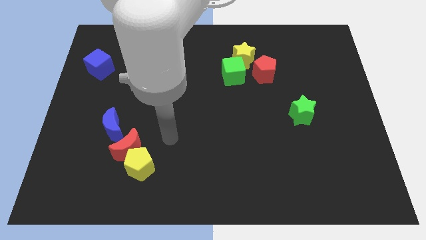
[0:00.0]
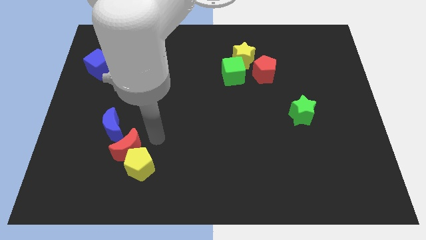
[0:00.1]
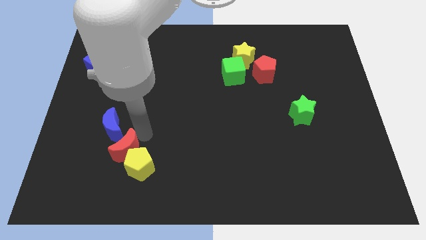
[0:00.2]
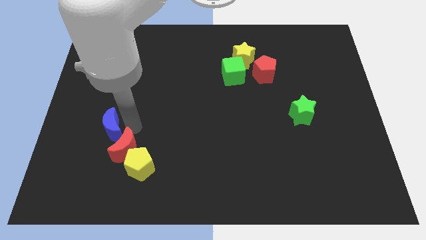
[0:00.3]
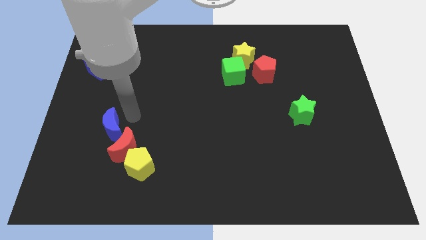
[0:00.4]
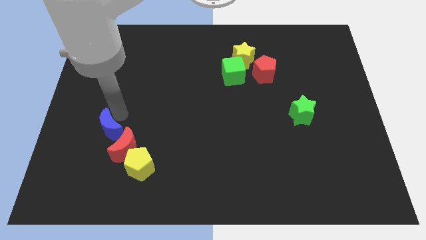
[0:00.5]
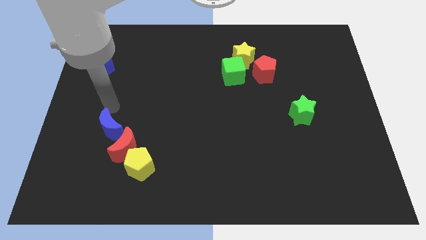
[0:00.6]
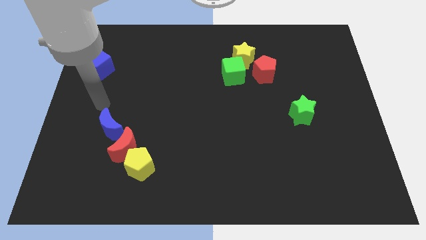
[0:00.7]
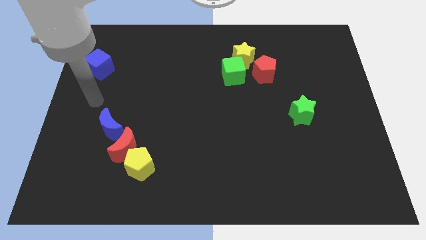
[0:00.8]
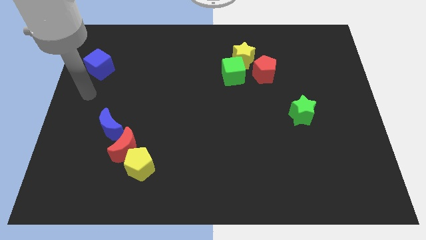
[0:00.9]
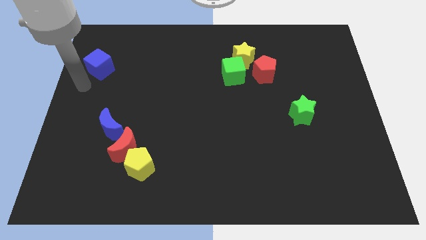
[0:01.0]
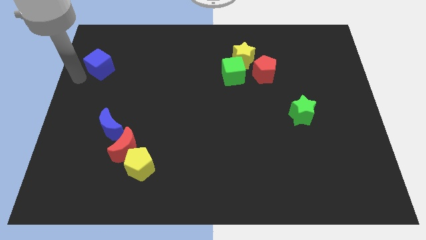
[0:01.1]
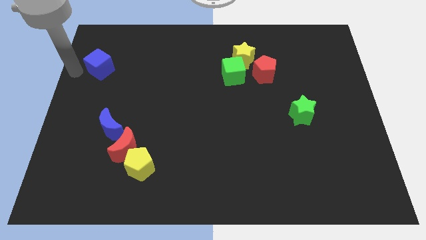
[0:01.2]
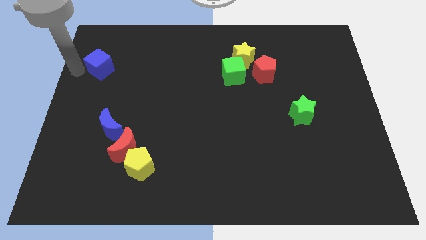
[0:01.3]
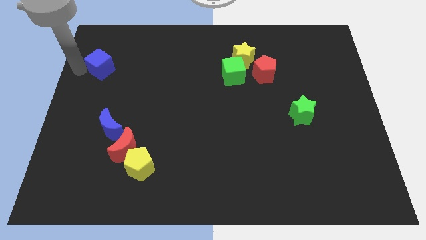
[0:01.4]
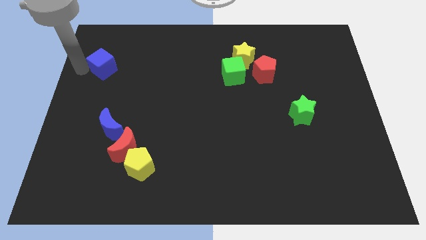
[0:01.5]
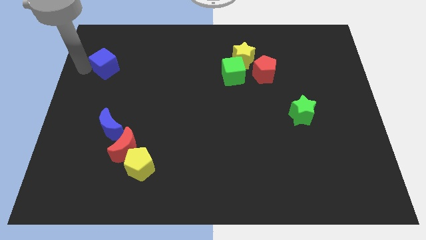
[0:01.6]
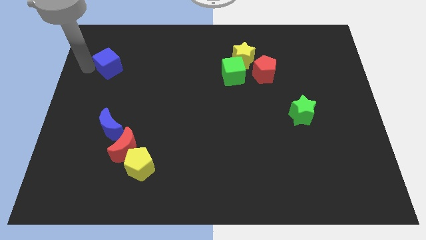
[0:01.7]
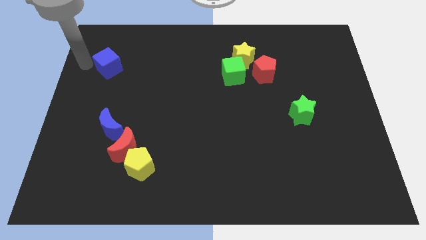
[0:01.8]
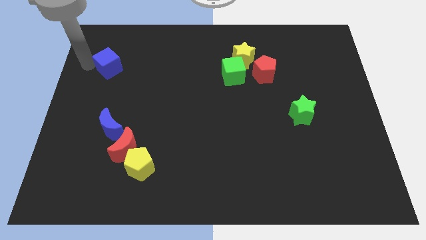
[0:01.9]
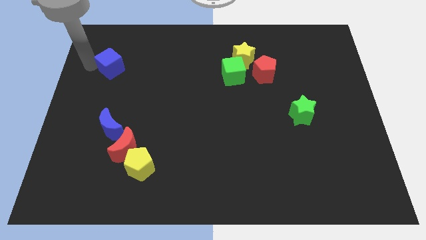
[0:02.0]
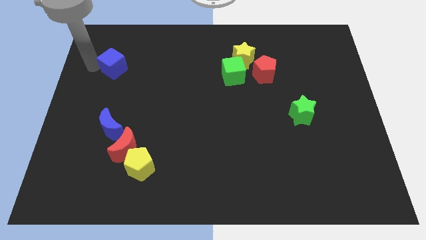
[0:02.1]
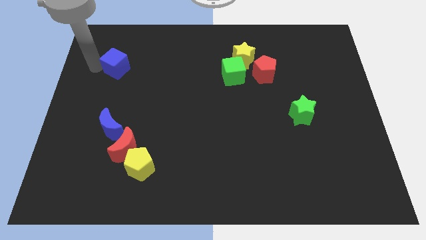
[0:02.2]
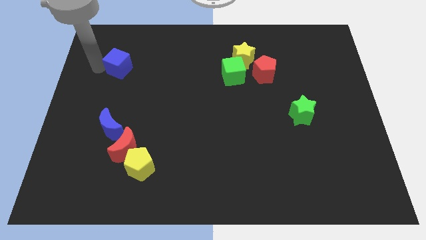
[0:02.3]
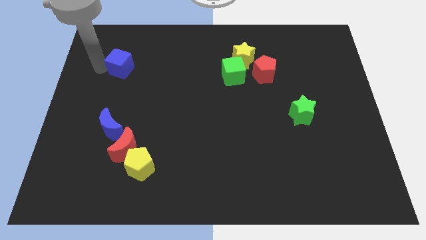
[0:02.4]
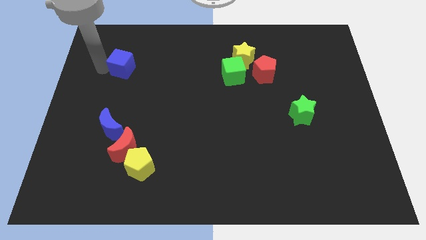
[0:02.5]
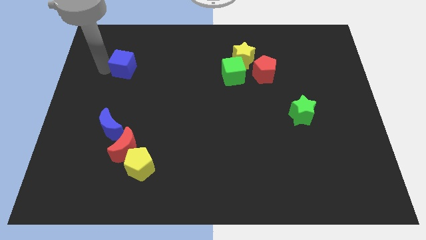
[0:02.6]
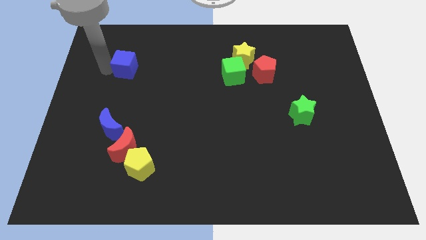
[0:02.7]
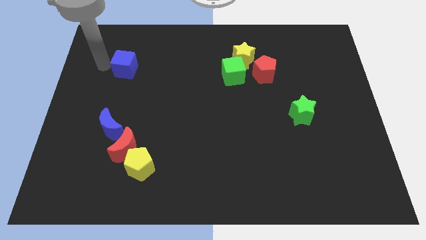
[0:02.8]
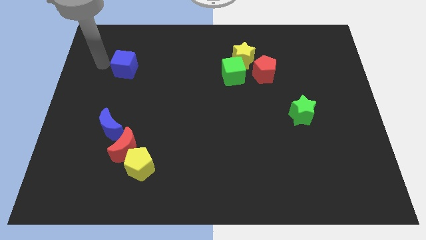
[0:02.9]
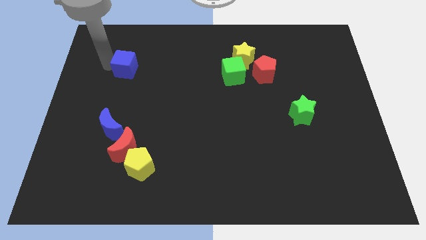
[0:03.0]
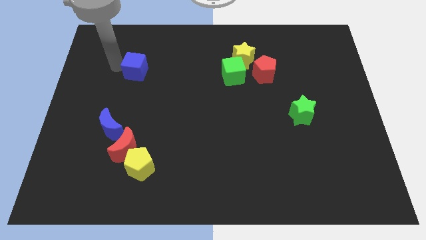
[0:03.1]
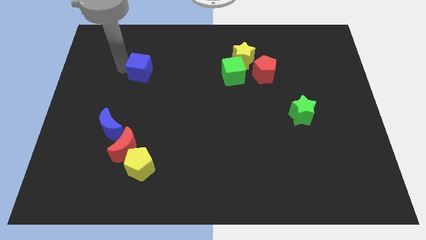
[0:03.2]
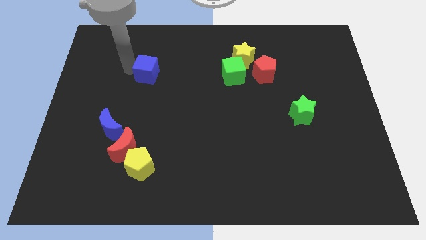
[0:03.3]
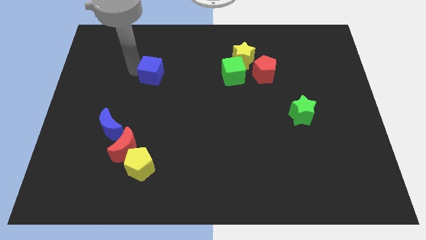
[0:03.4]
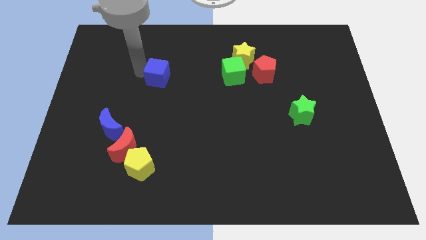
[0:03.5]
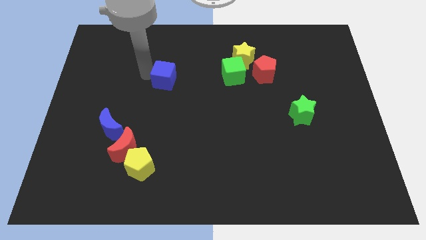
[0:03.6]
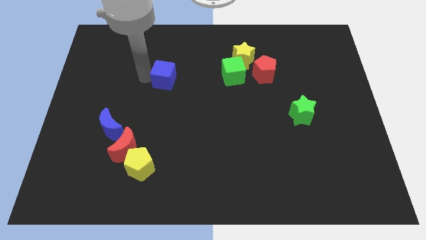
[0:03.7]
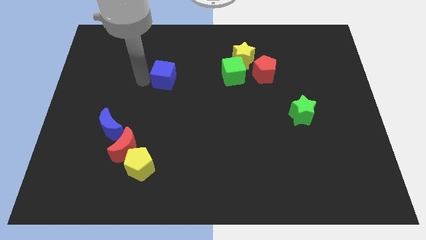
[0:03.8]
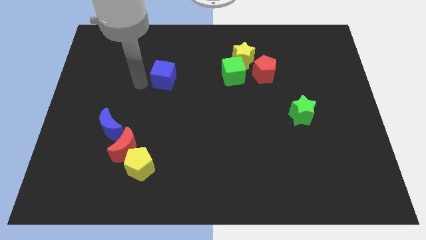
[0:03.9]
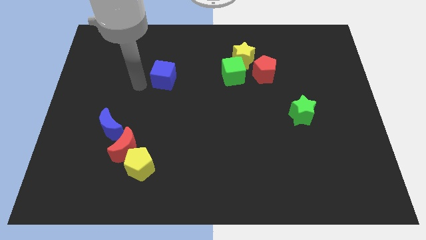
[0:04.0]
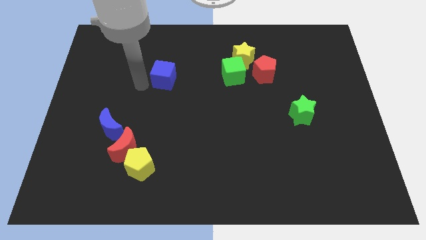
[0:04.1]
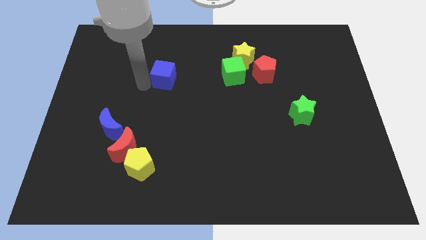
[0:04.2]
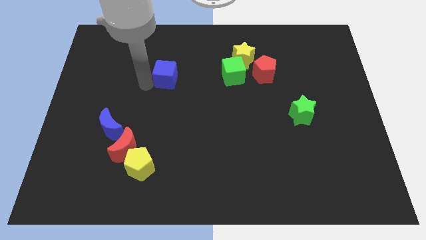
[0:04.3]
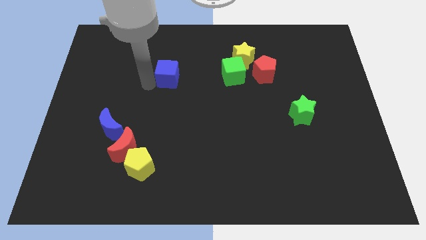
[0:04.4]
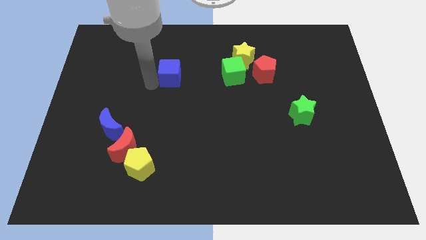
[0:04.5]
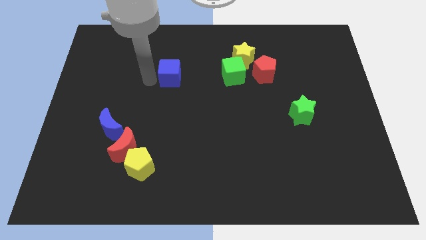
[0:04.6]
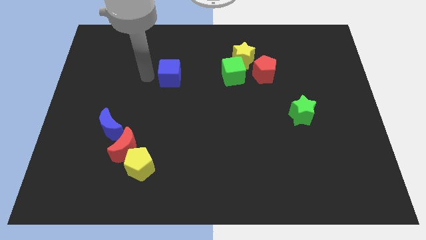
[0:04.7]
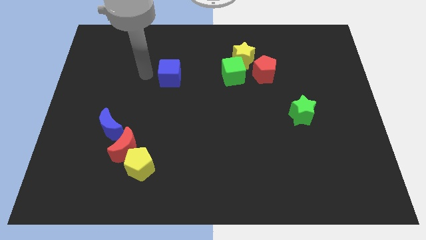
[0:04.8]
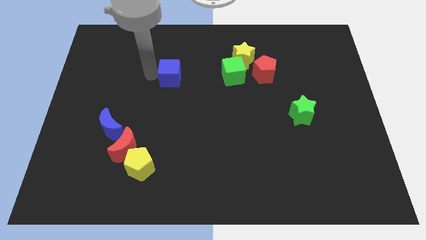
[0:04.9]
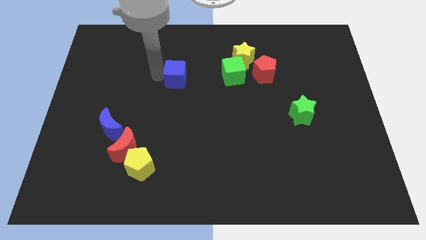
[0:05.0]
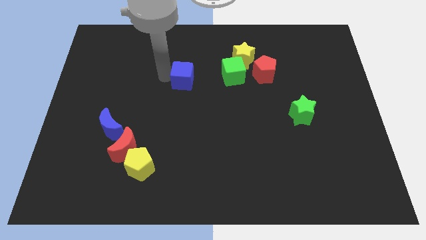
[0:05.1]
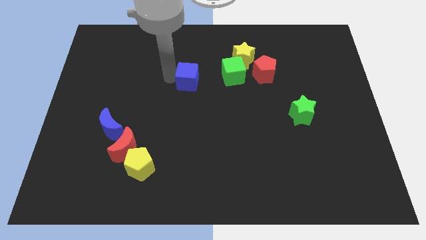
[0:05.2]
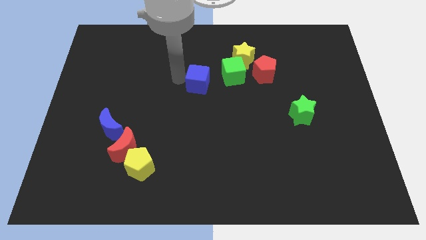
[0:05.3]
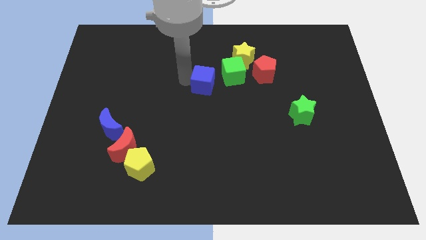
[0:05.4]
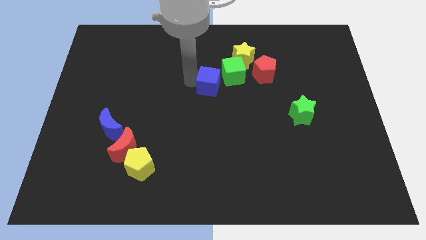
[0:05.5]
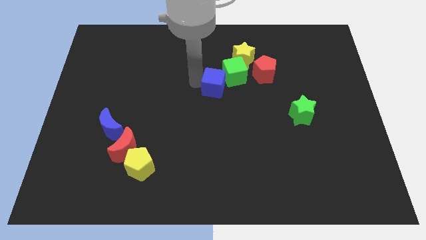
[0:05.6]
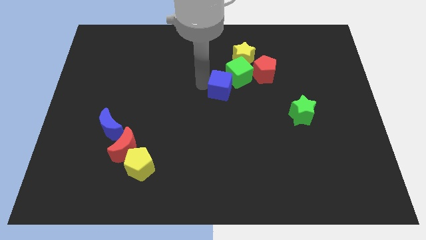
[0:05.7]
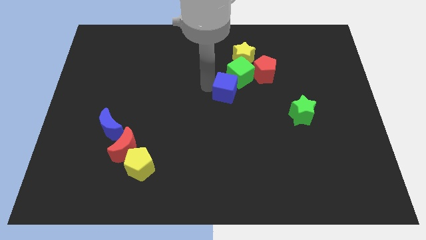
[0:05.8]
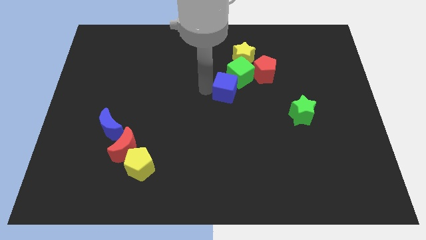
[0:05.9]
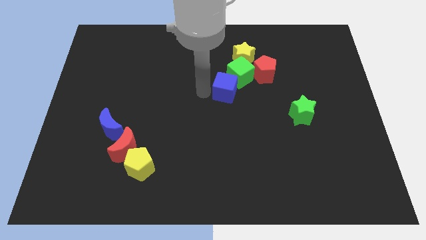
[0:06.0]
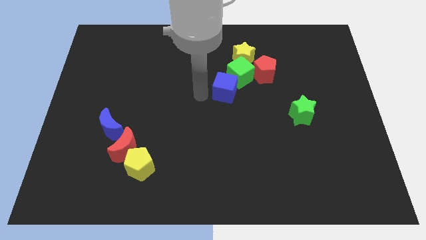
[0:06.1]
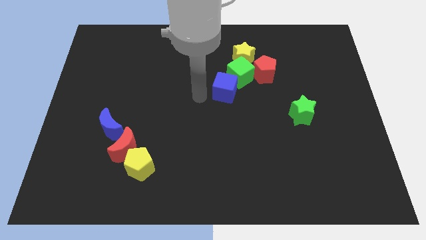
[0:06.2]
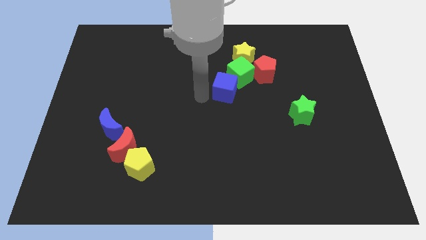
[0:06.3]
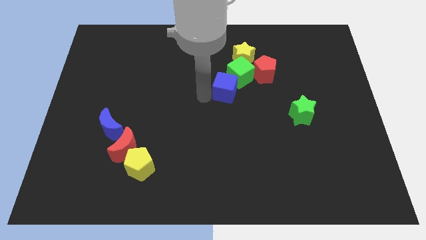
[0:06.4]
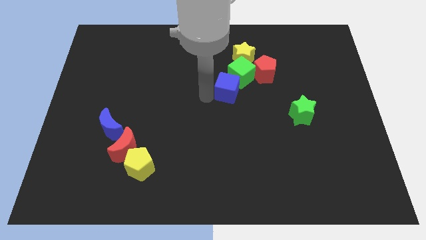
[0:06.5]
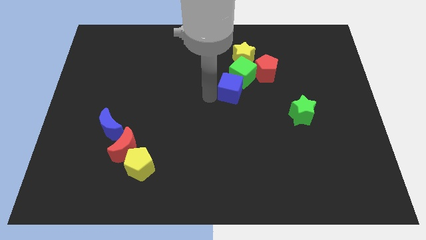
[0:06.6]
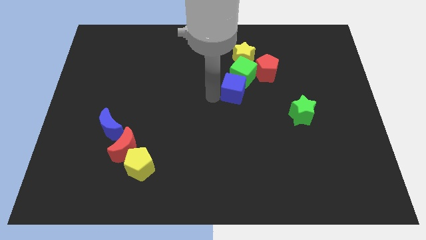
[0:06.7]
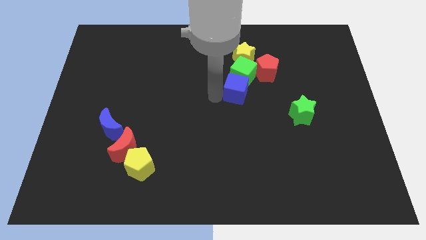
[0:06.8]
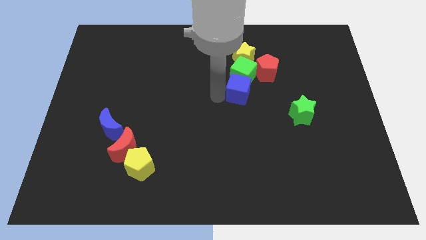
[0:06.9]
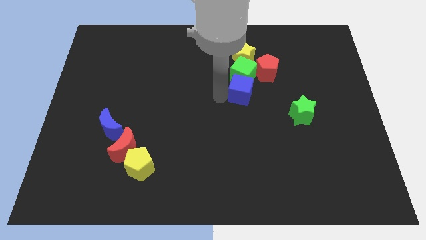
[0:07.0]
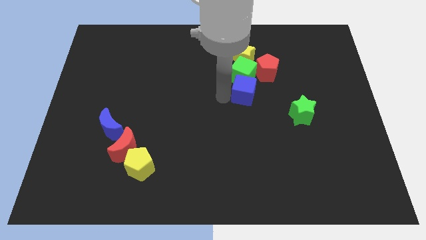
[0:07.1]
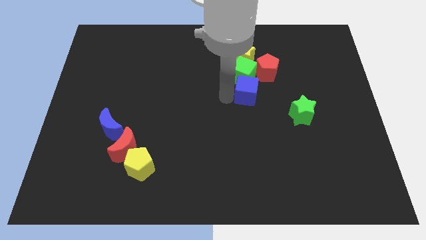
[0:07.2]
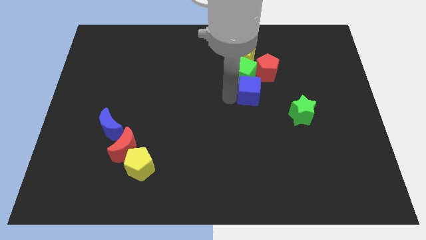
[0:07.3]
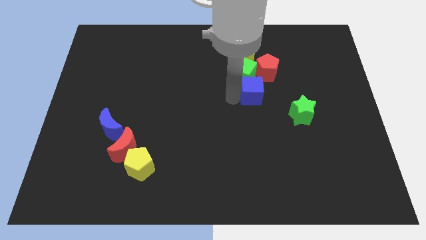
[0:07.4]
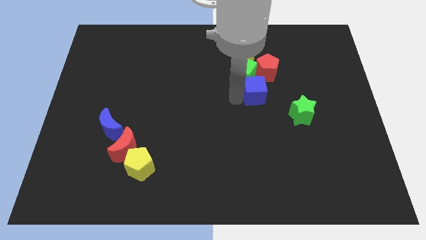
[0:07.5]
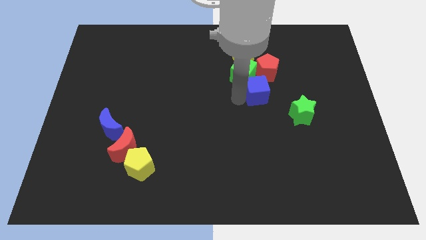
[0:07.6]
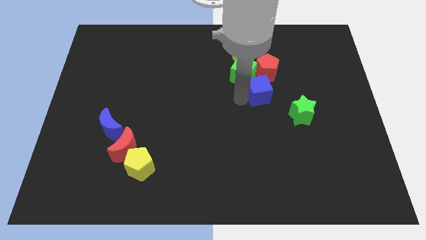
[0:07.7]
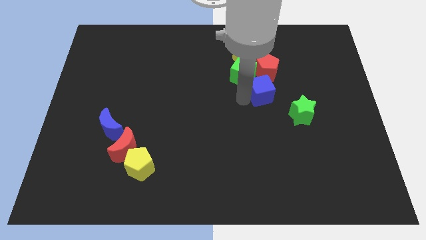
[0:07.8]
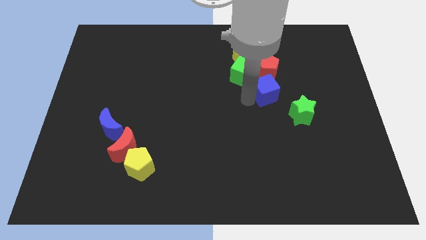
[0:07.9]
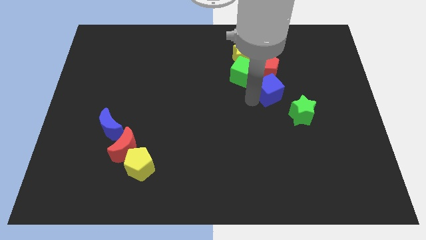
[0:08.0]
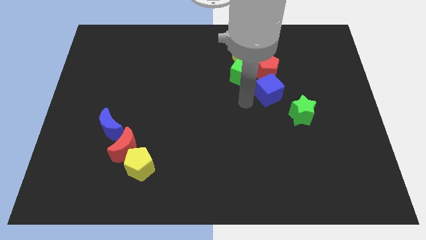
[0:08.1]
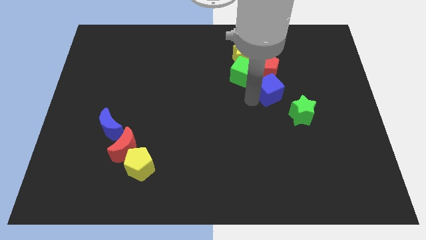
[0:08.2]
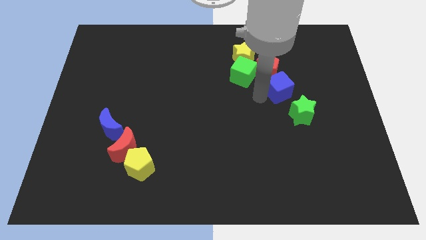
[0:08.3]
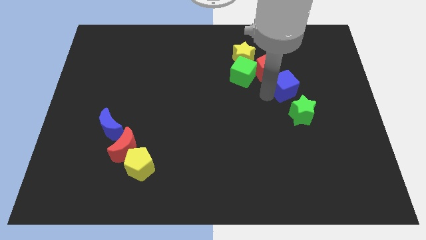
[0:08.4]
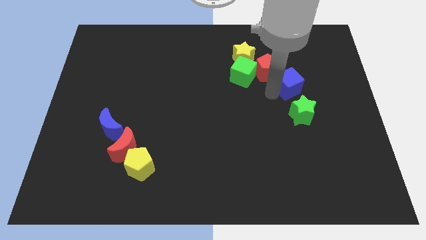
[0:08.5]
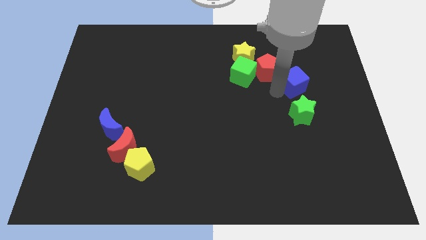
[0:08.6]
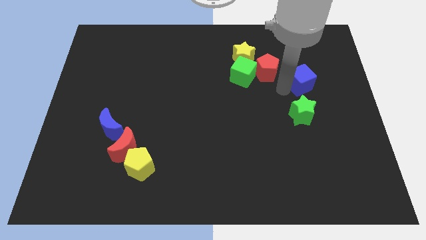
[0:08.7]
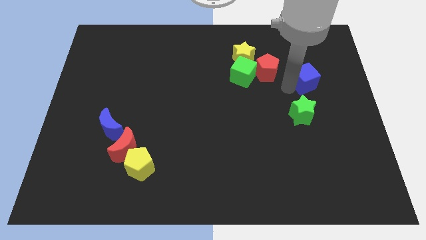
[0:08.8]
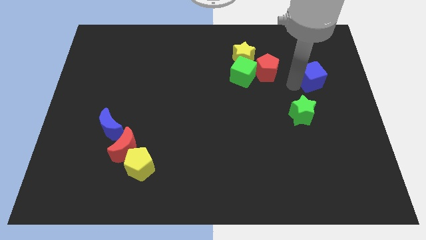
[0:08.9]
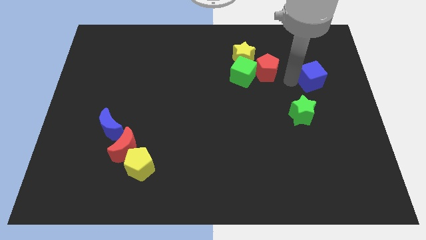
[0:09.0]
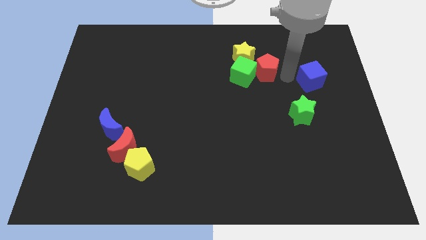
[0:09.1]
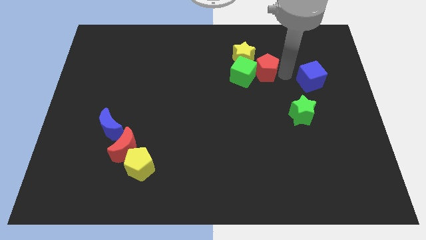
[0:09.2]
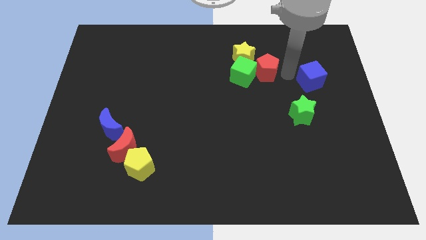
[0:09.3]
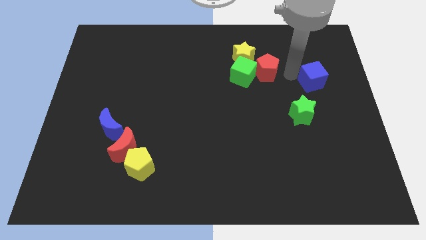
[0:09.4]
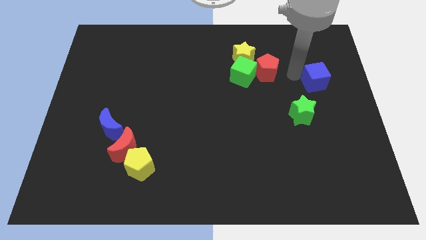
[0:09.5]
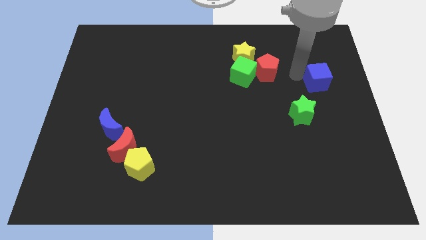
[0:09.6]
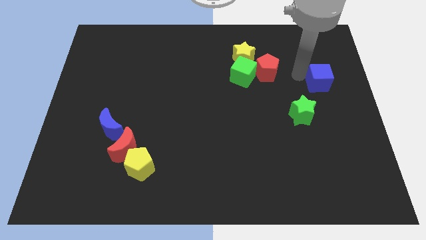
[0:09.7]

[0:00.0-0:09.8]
move the blue cube to the right side
